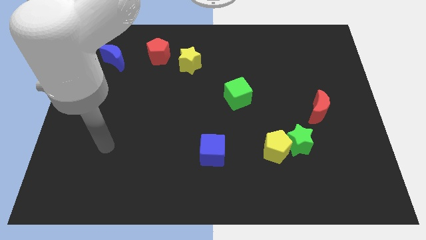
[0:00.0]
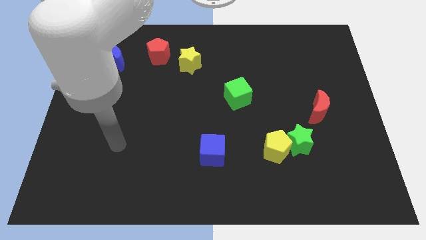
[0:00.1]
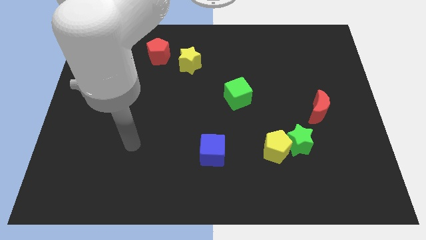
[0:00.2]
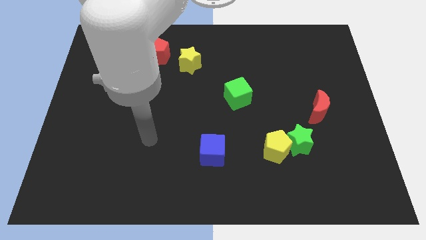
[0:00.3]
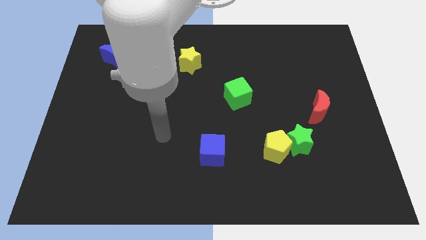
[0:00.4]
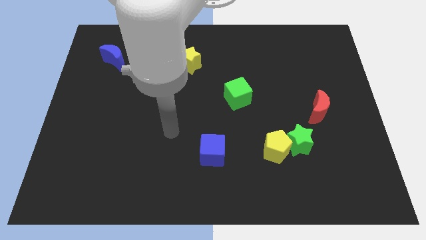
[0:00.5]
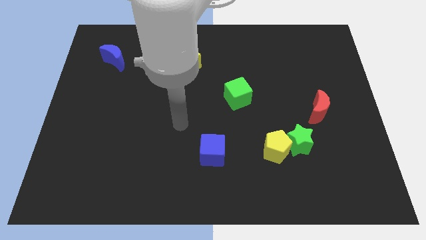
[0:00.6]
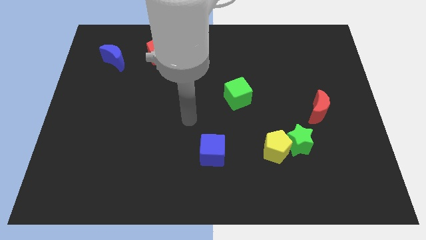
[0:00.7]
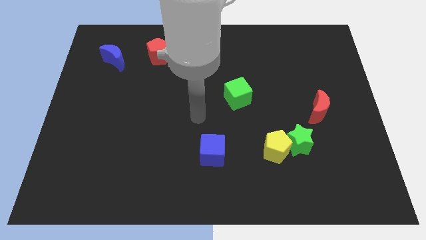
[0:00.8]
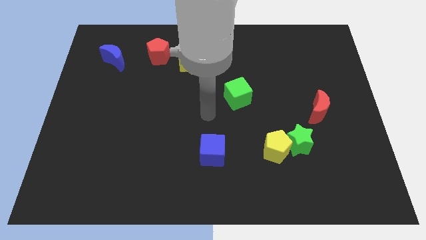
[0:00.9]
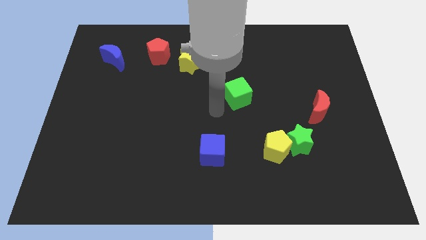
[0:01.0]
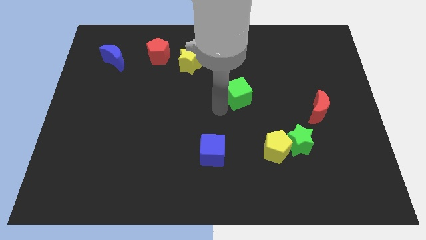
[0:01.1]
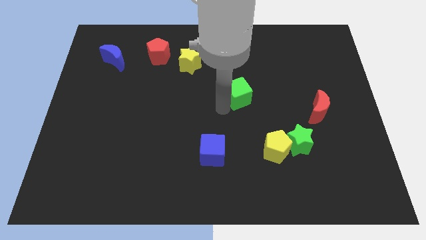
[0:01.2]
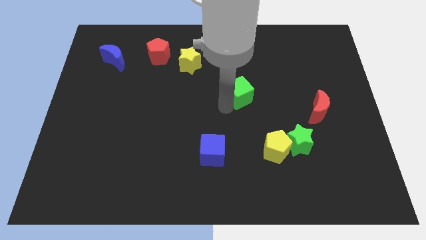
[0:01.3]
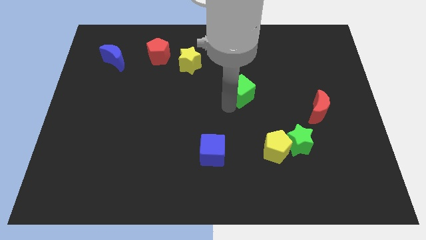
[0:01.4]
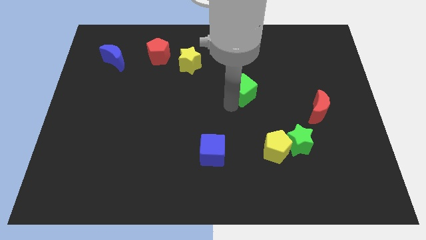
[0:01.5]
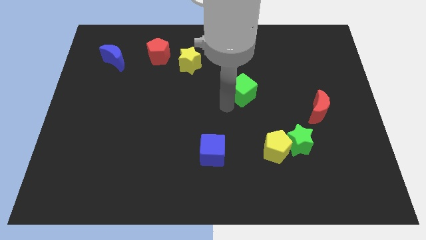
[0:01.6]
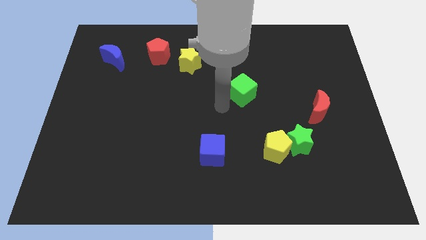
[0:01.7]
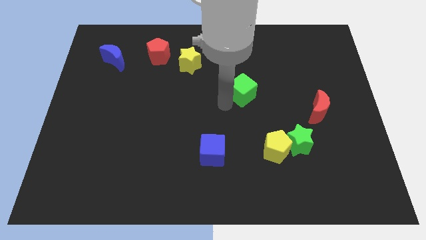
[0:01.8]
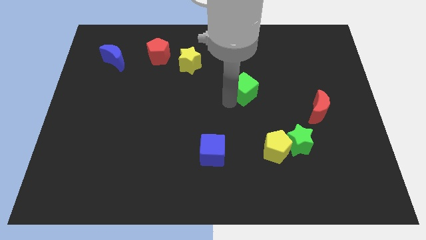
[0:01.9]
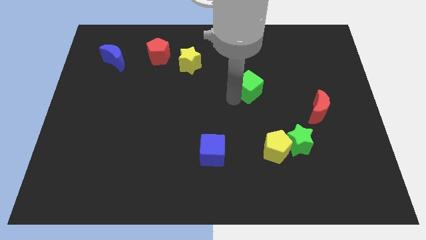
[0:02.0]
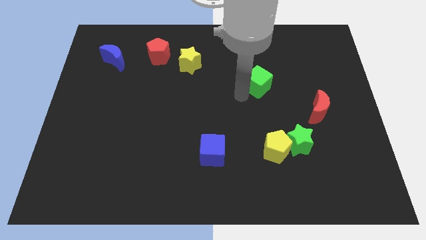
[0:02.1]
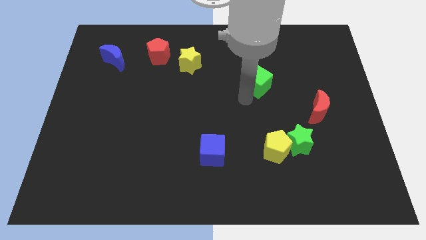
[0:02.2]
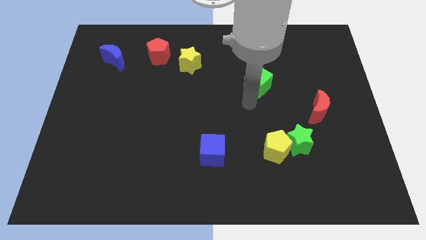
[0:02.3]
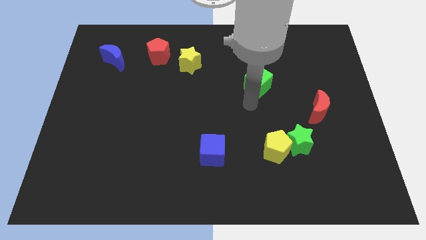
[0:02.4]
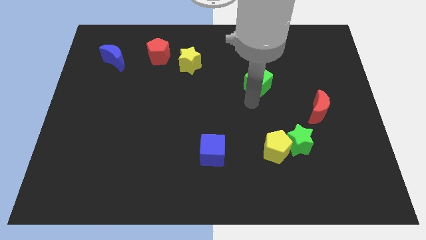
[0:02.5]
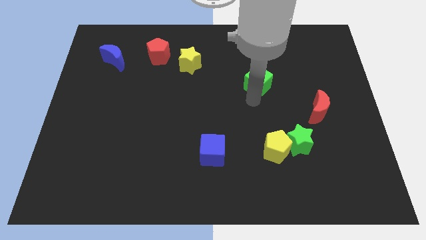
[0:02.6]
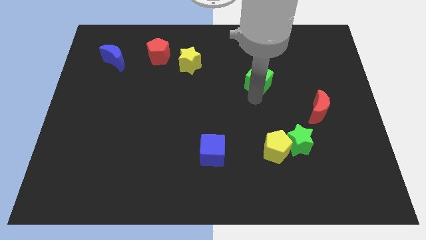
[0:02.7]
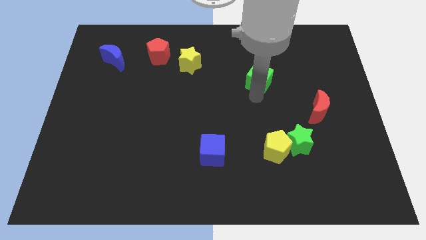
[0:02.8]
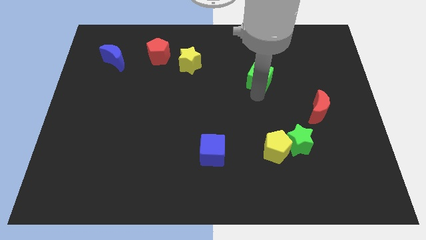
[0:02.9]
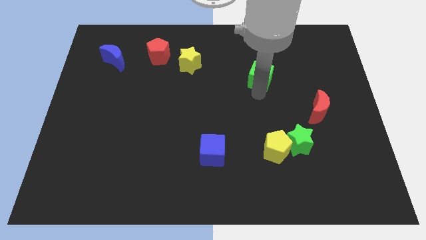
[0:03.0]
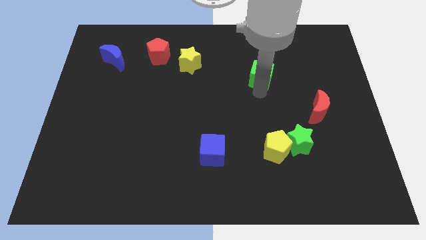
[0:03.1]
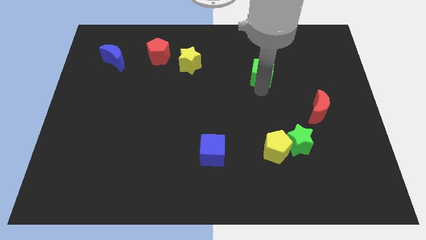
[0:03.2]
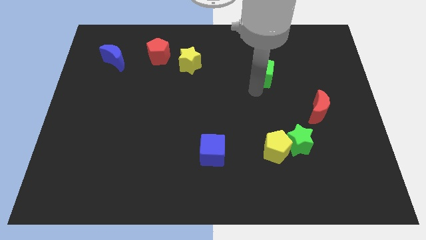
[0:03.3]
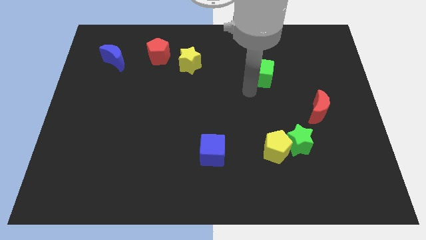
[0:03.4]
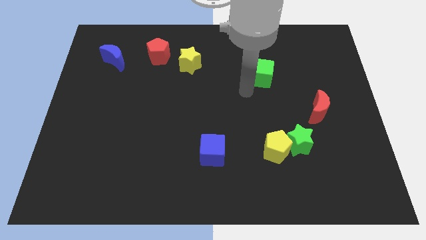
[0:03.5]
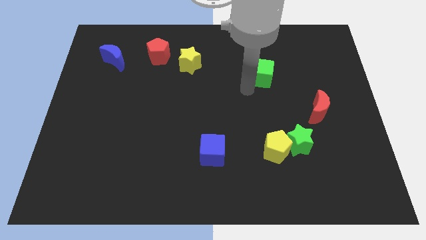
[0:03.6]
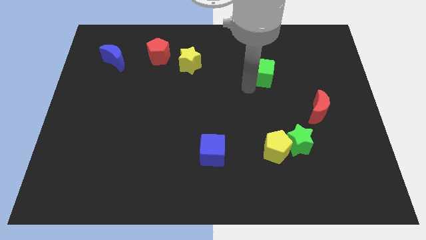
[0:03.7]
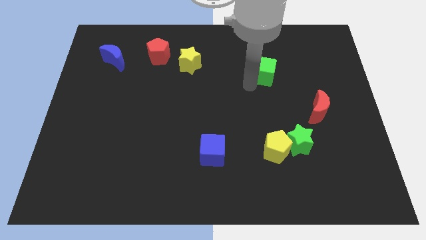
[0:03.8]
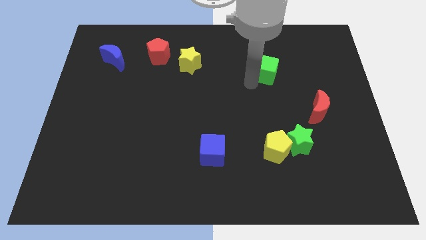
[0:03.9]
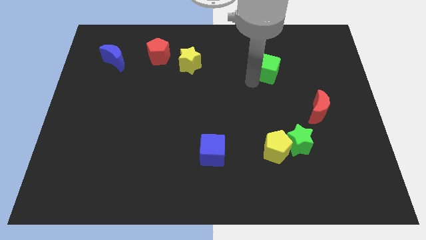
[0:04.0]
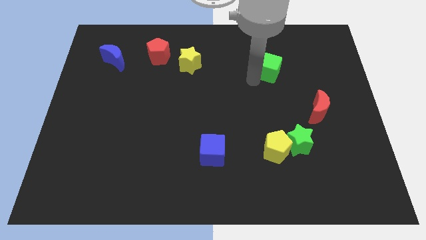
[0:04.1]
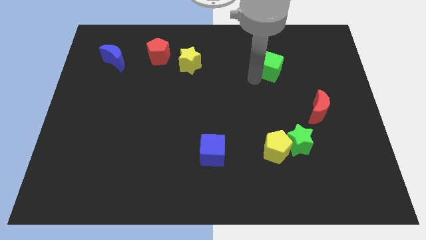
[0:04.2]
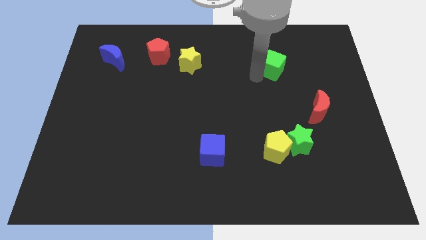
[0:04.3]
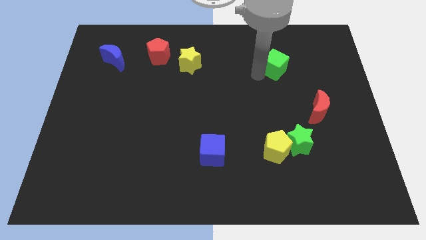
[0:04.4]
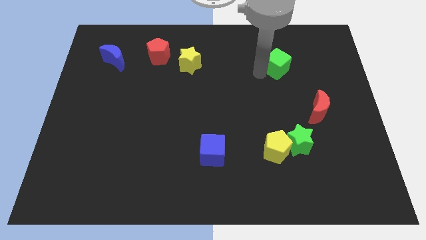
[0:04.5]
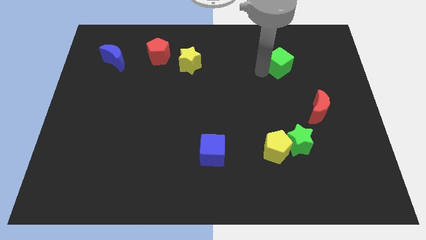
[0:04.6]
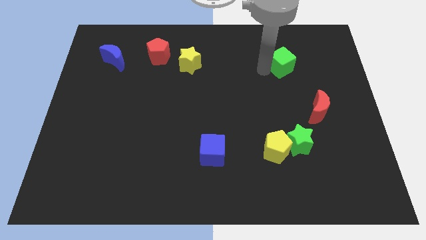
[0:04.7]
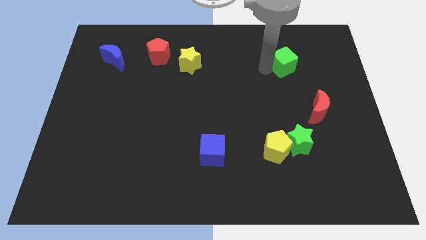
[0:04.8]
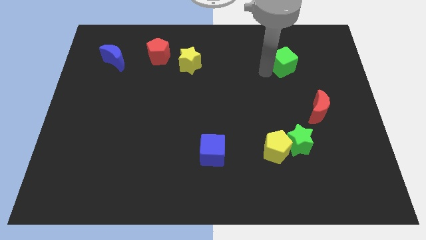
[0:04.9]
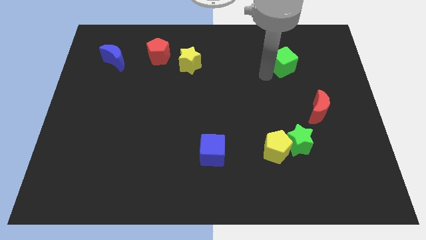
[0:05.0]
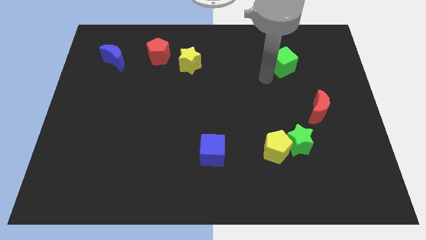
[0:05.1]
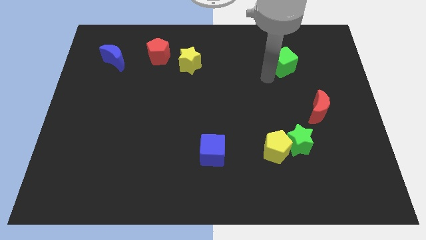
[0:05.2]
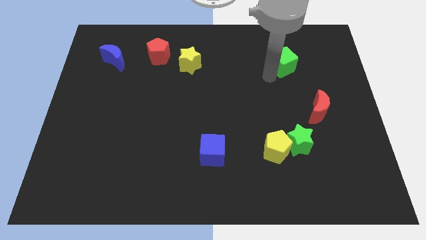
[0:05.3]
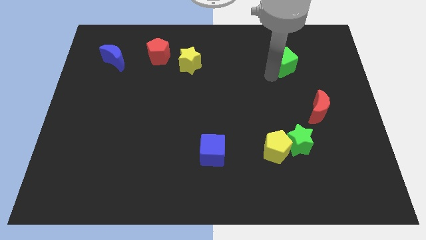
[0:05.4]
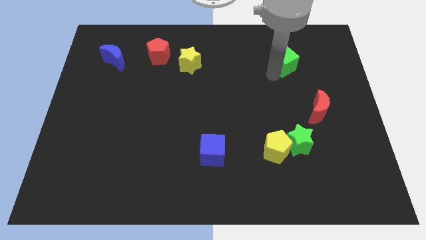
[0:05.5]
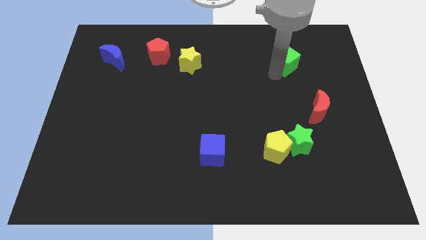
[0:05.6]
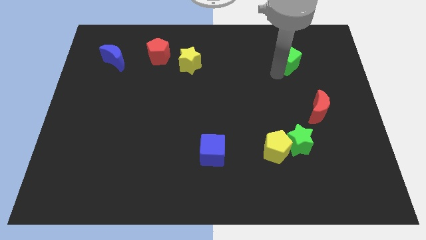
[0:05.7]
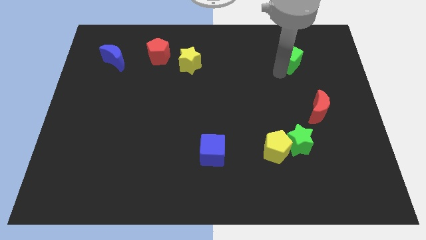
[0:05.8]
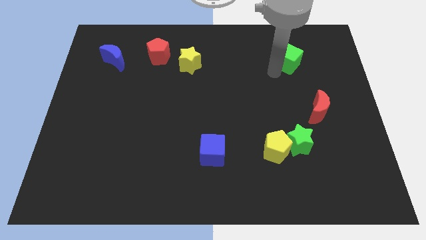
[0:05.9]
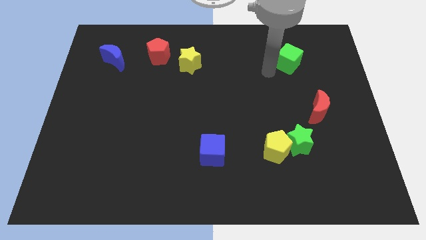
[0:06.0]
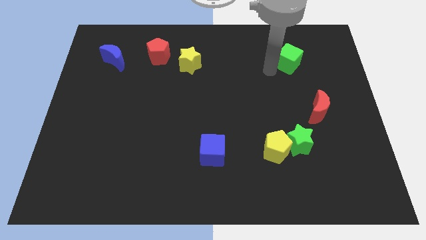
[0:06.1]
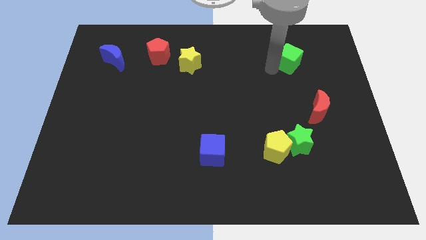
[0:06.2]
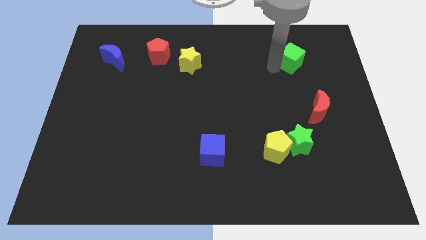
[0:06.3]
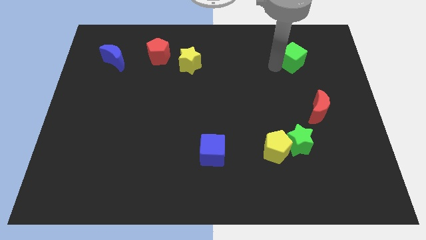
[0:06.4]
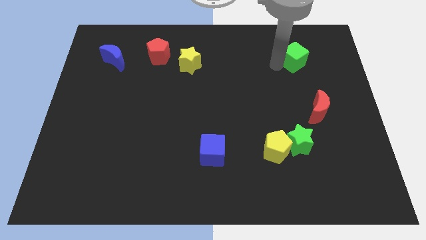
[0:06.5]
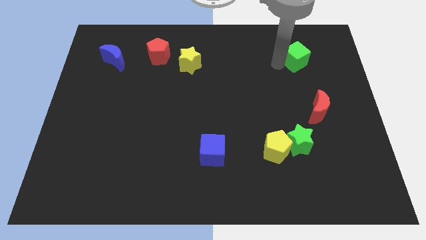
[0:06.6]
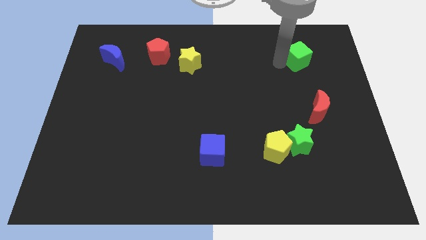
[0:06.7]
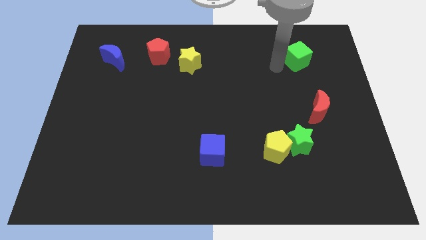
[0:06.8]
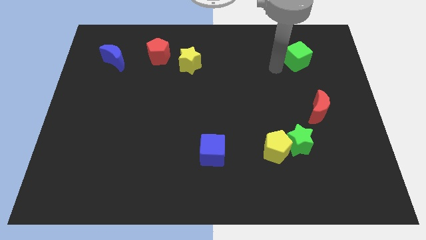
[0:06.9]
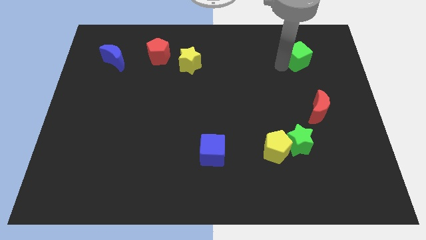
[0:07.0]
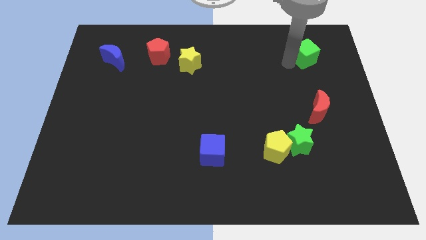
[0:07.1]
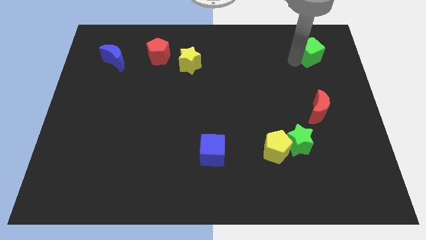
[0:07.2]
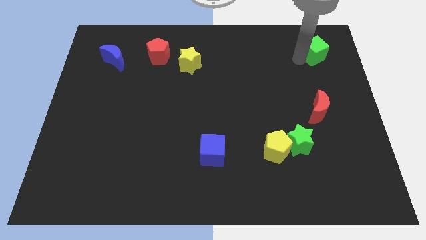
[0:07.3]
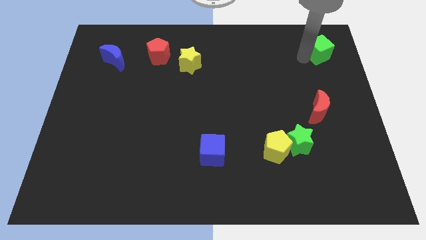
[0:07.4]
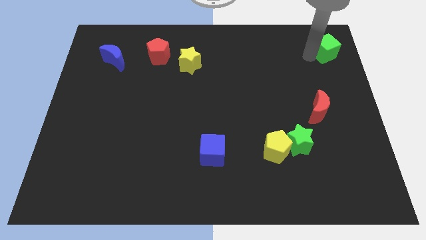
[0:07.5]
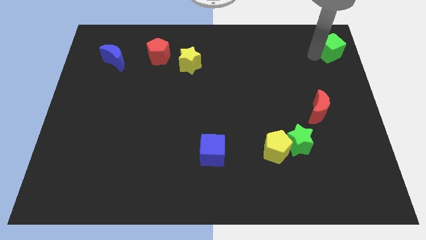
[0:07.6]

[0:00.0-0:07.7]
slide the green cube to the upper right corner
